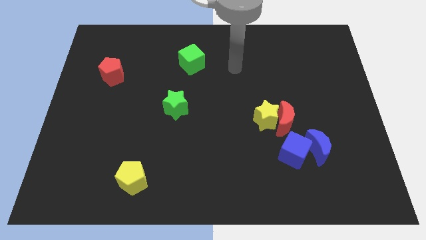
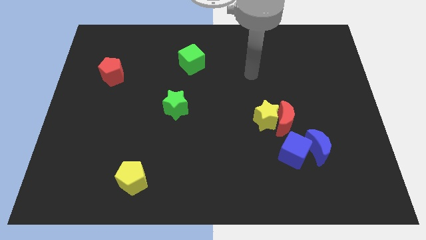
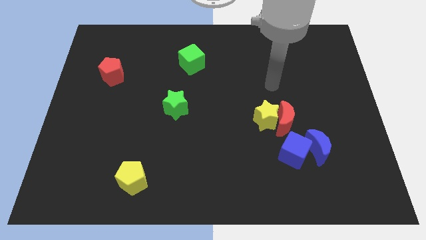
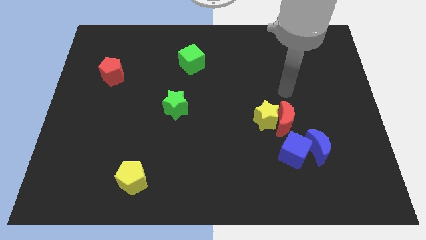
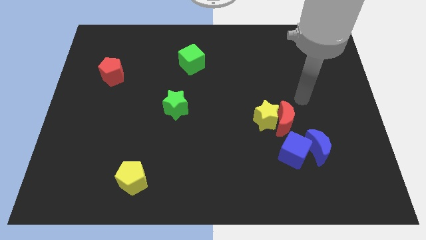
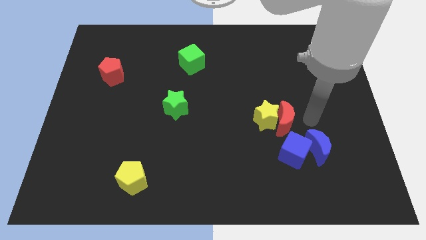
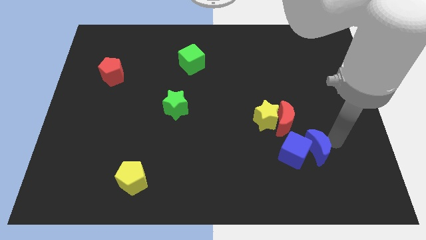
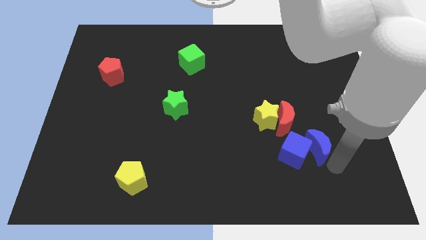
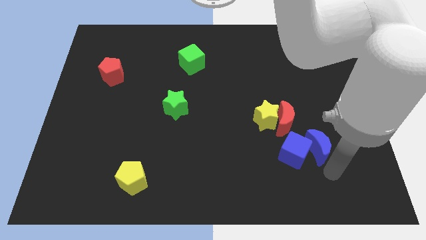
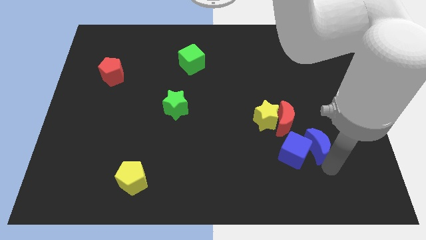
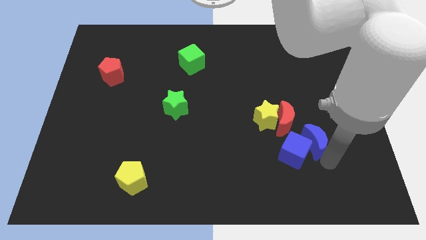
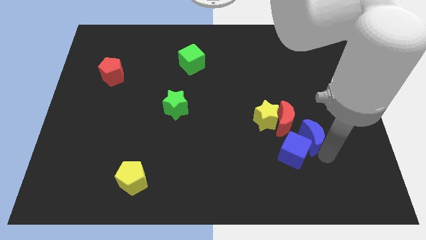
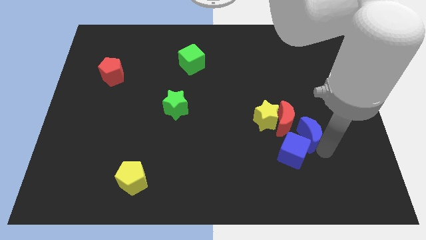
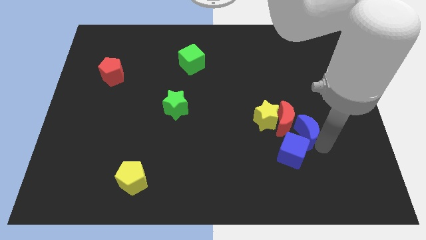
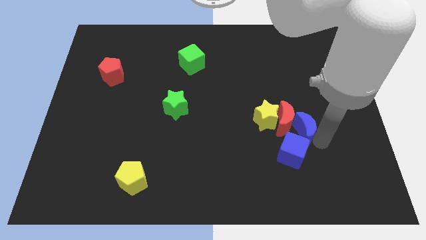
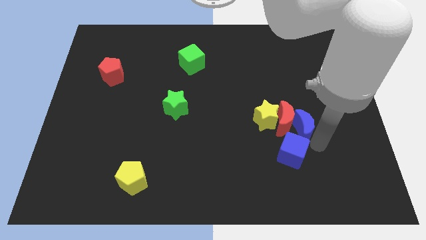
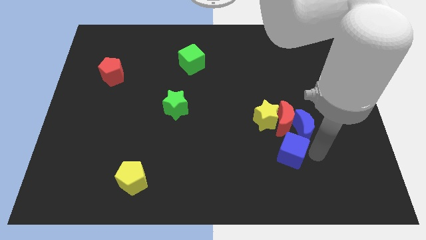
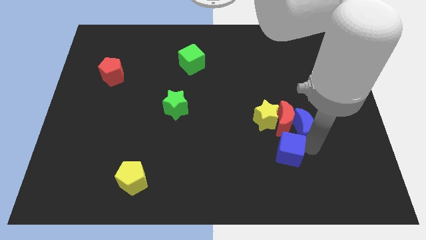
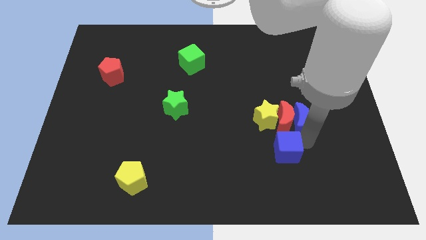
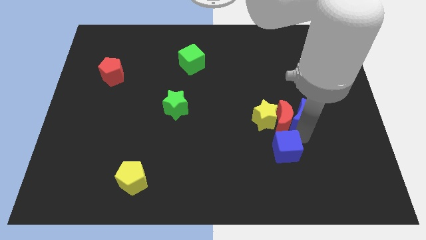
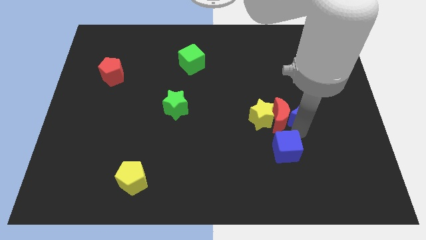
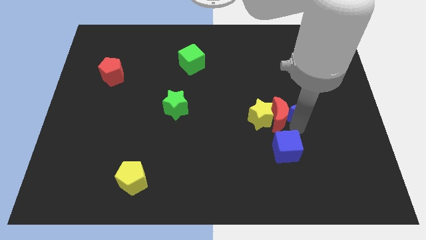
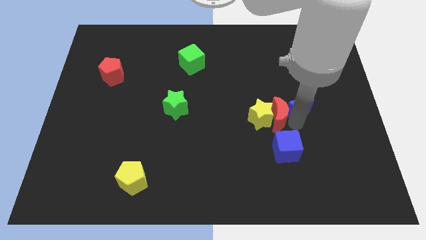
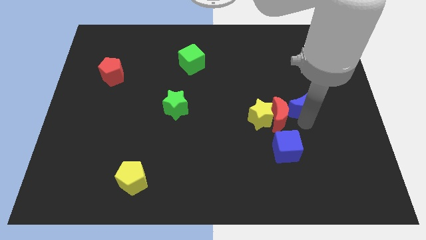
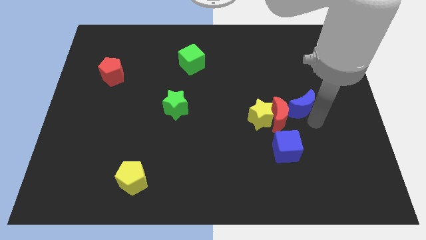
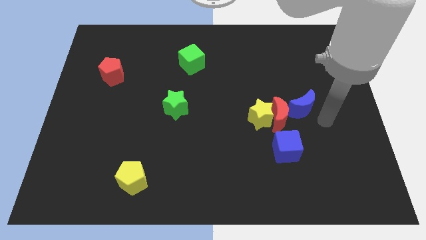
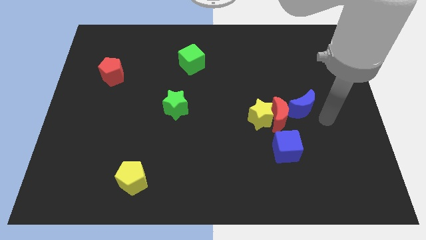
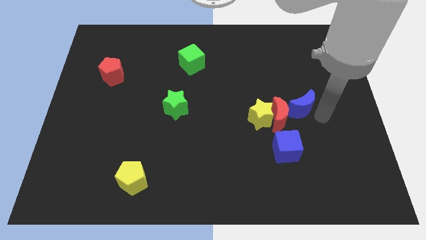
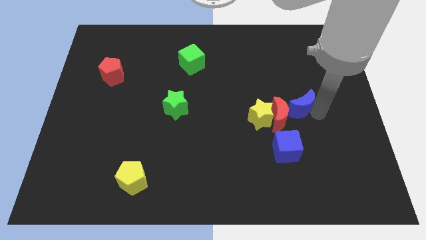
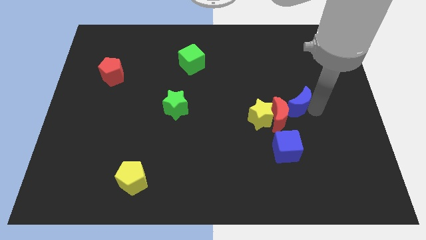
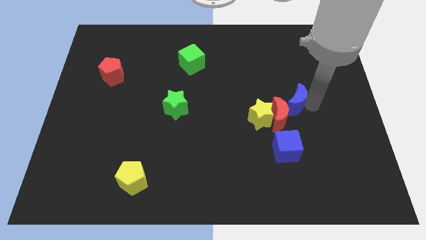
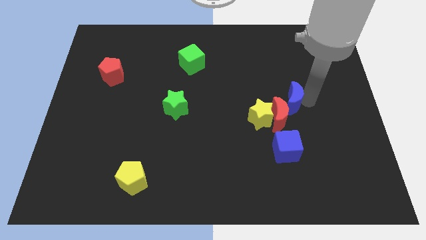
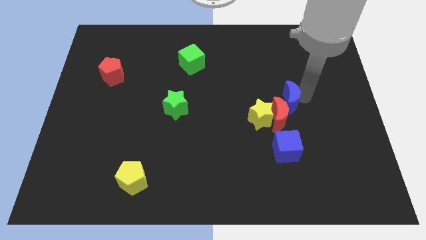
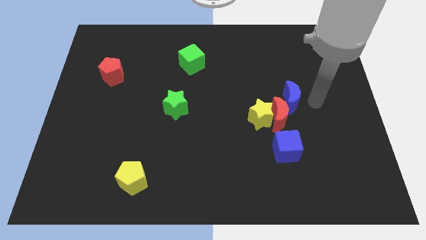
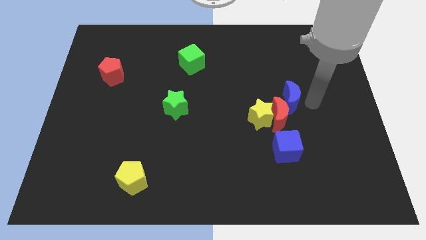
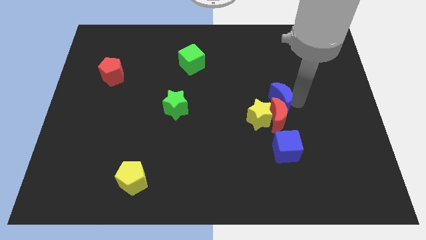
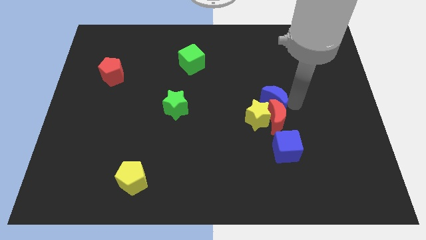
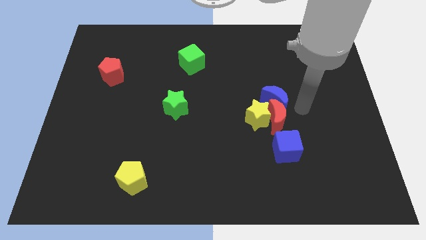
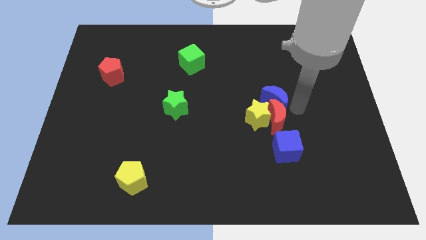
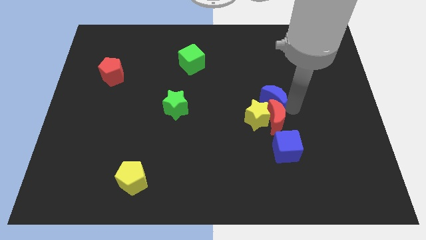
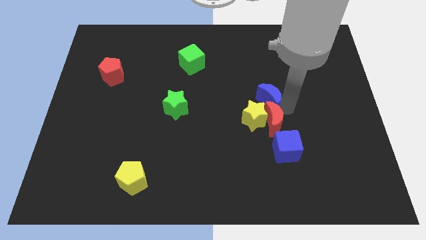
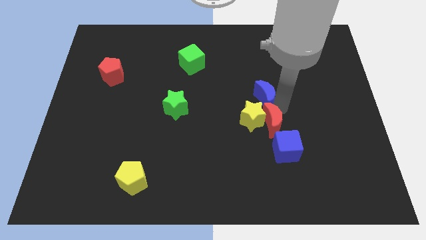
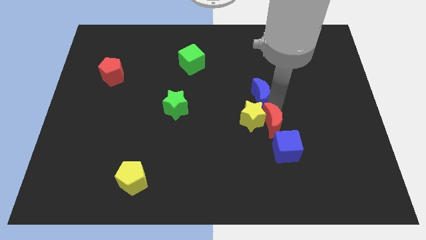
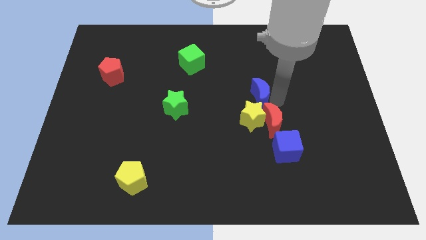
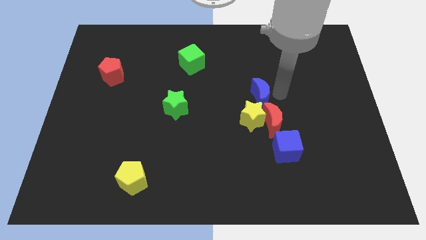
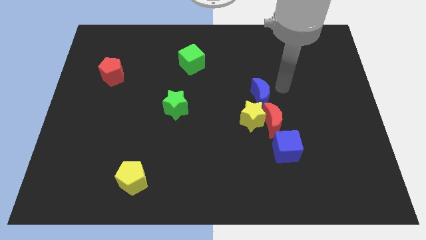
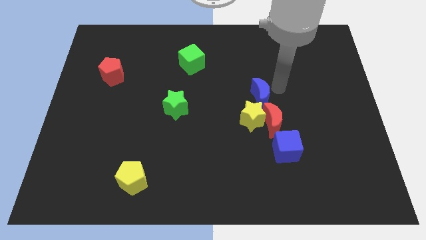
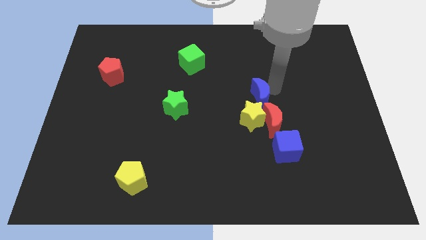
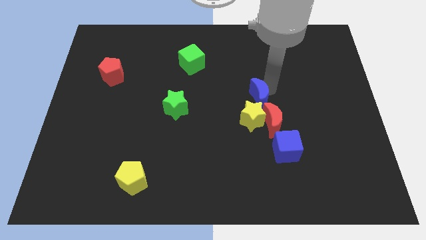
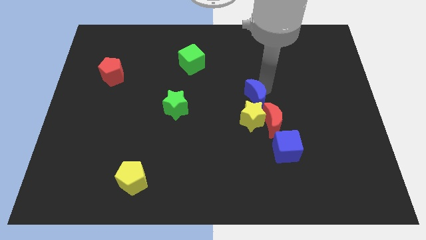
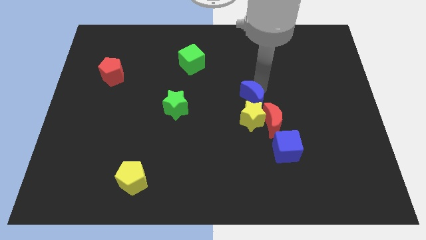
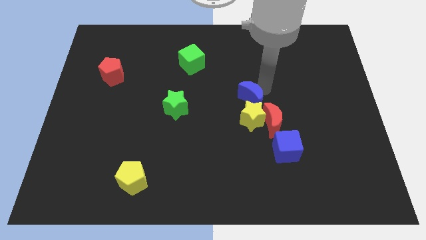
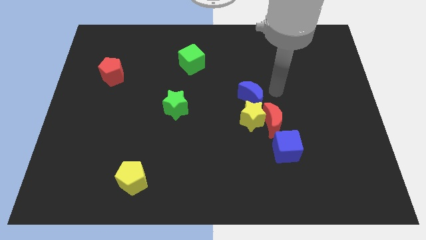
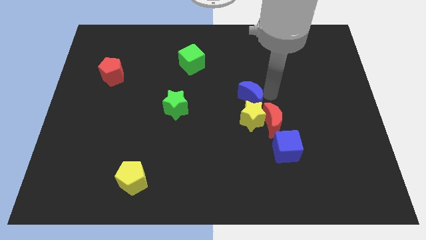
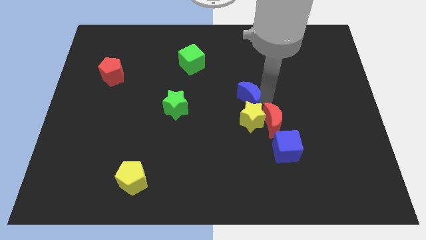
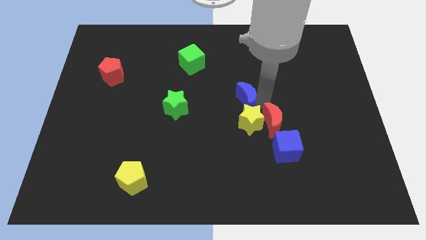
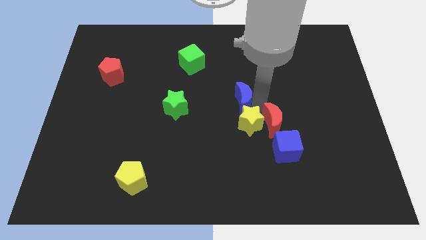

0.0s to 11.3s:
slide the blue moon just right of the green star

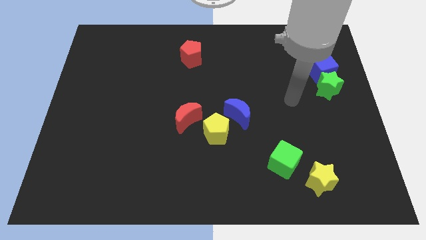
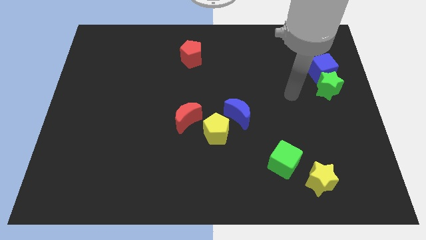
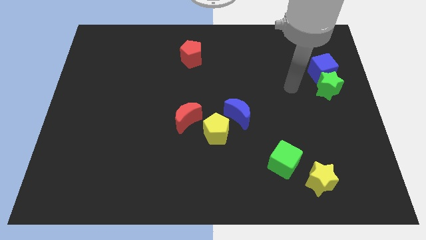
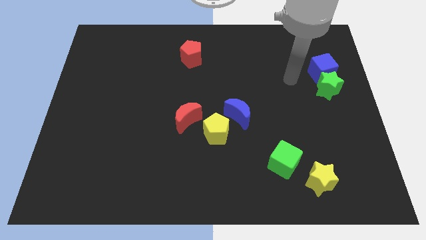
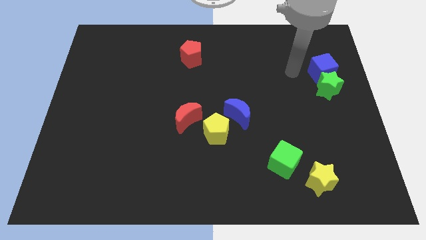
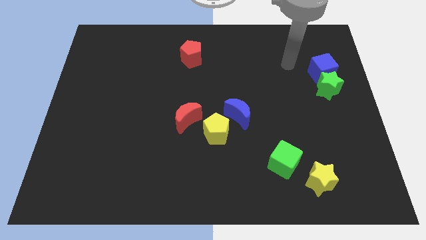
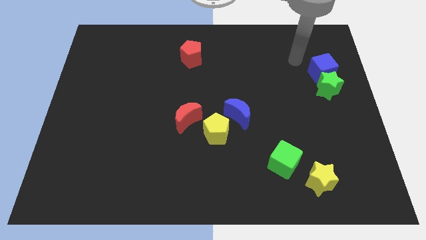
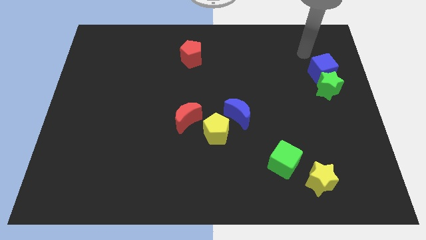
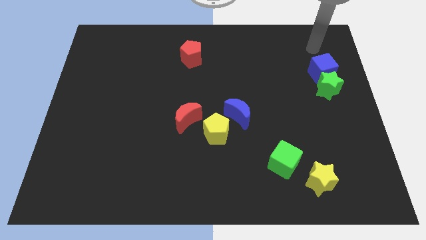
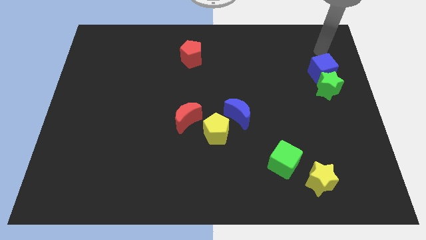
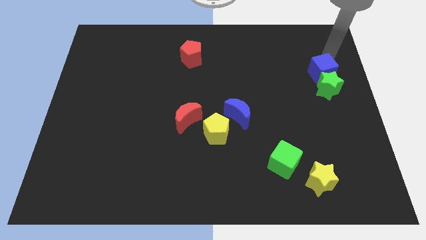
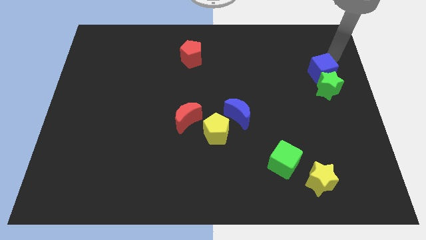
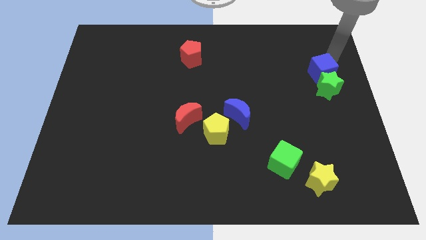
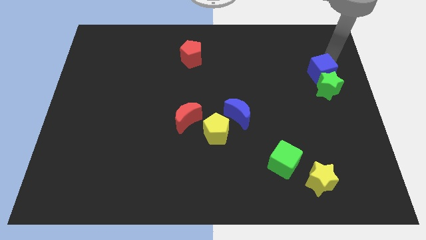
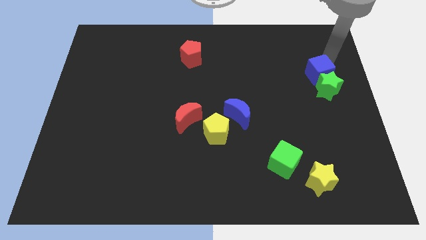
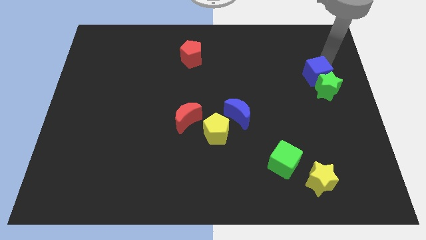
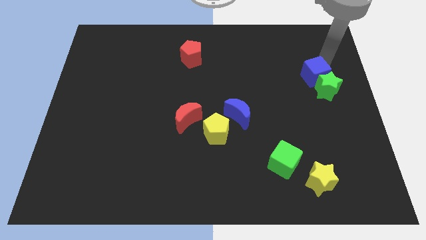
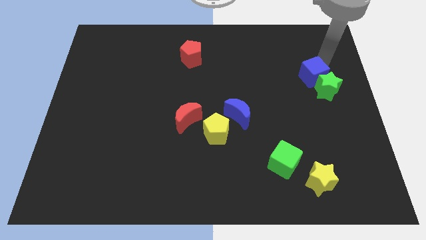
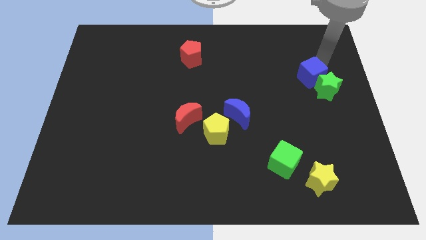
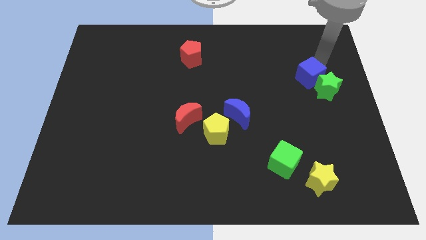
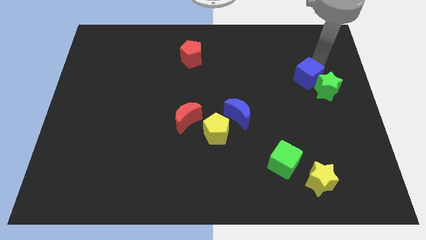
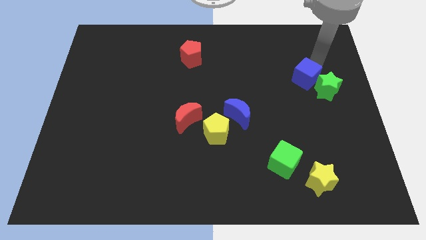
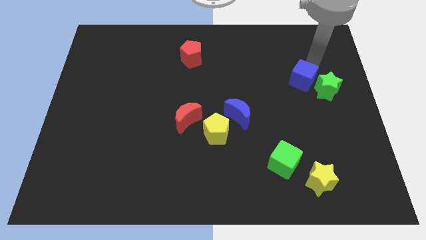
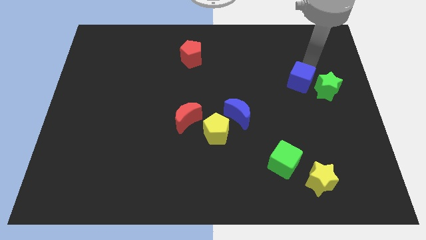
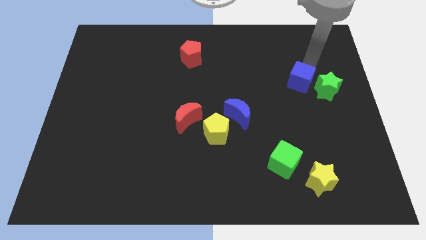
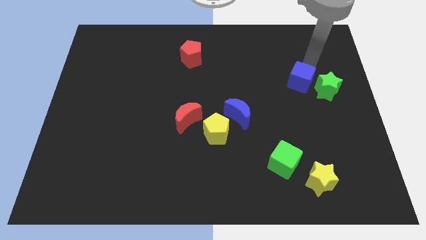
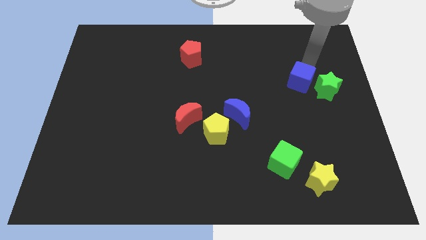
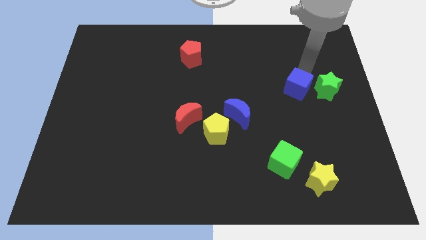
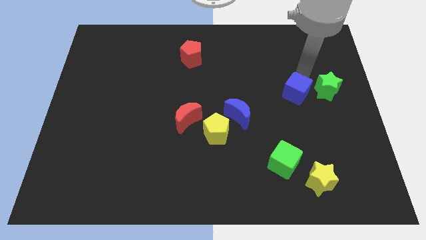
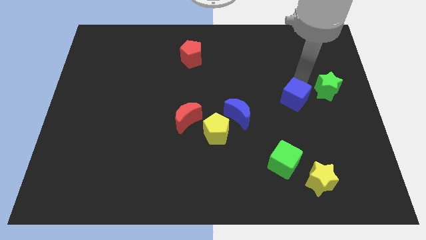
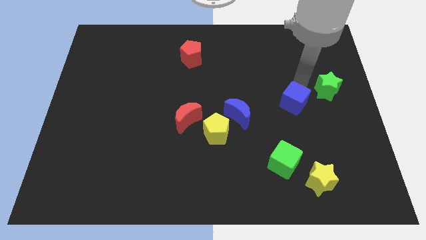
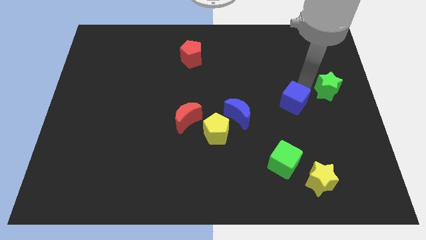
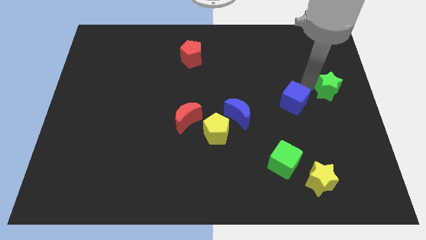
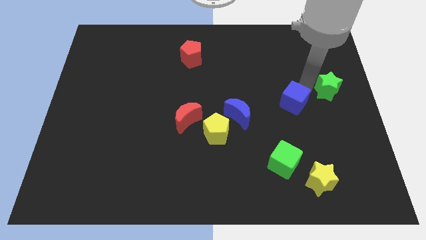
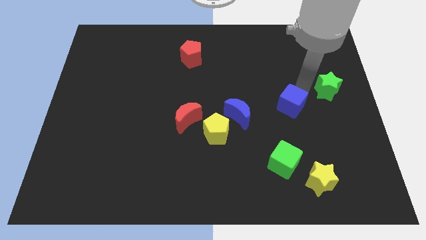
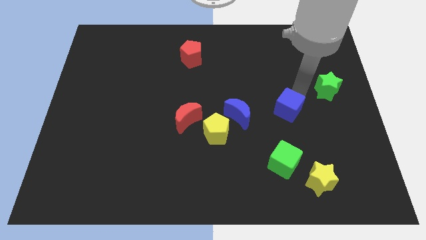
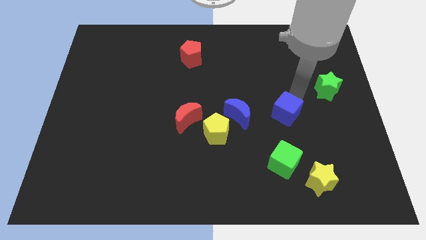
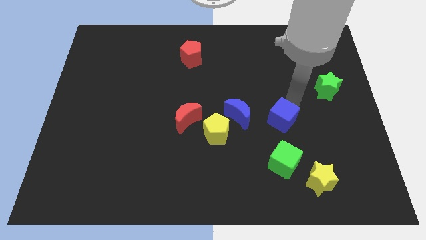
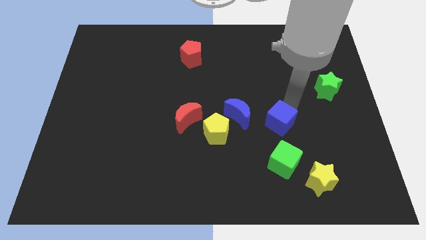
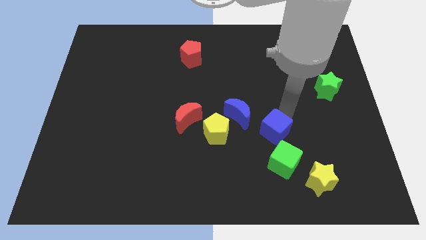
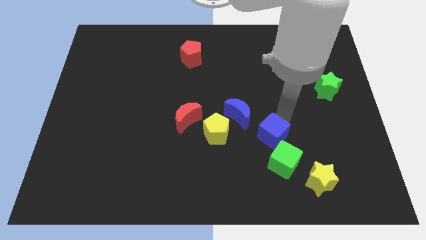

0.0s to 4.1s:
move the blue cube to the top left side of the green cube
